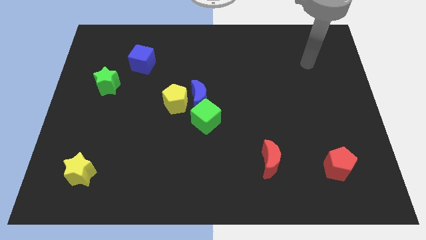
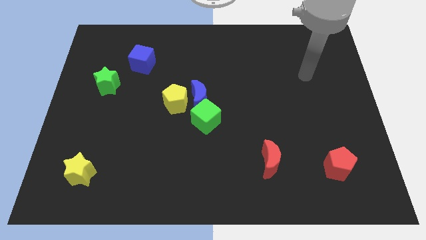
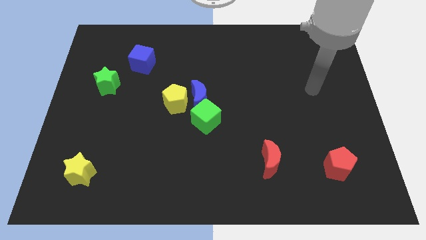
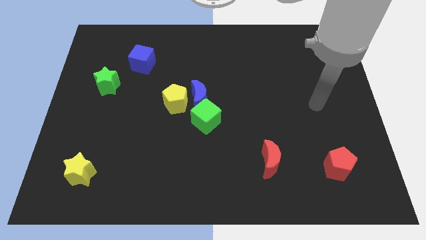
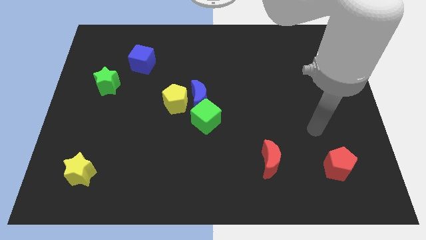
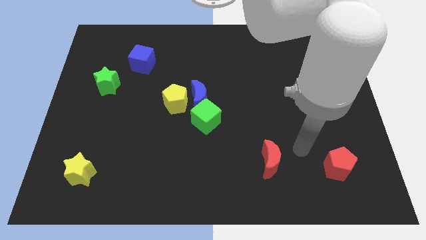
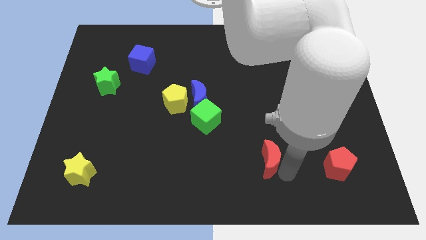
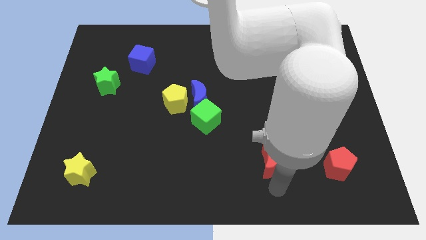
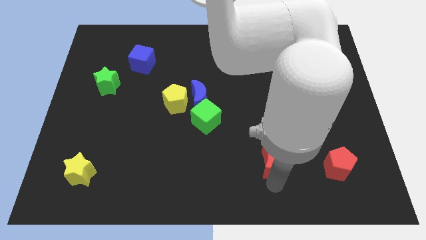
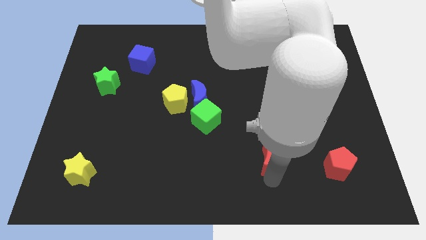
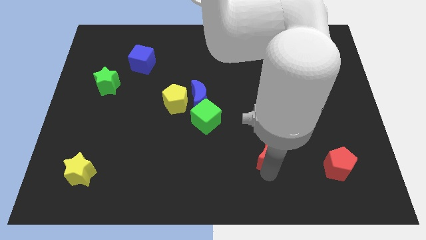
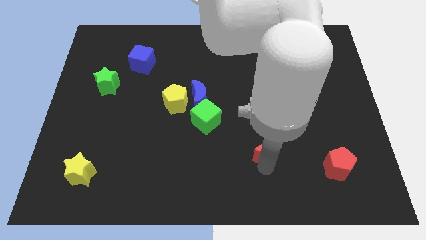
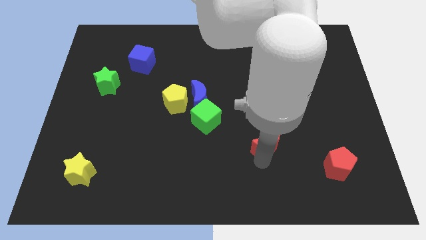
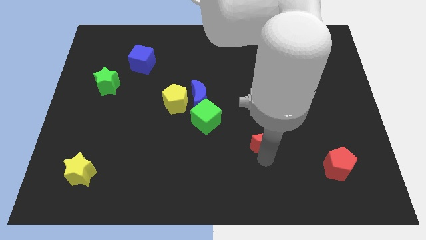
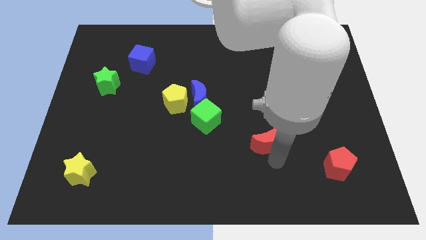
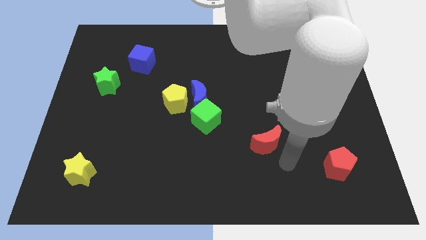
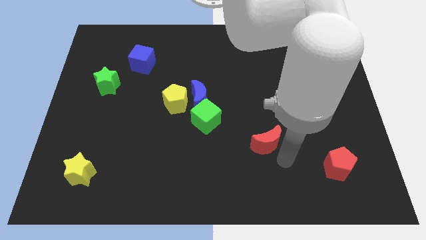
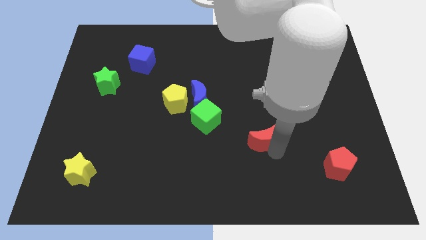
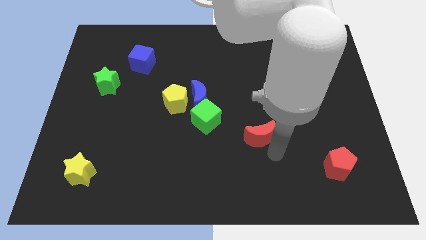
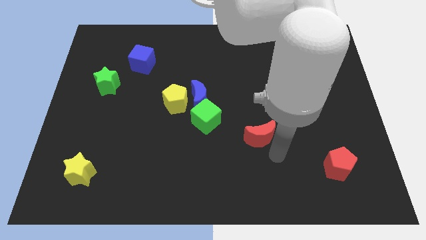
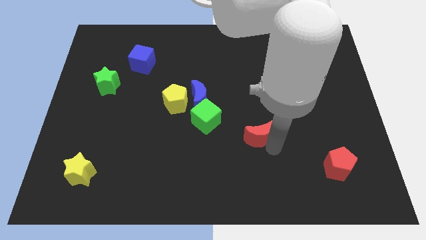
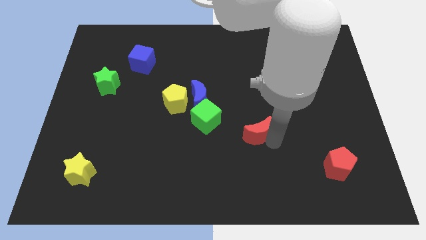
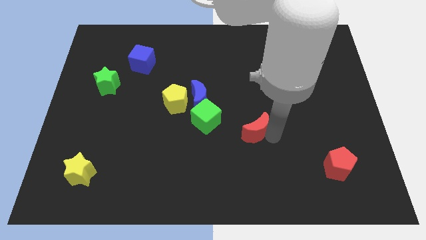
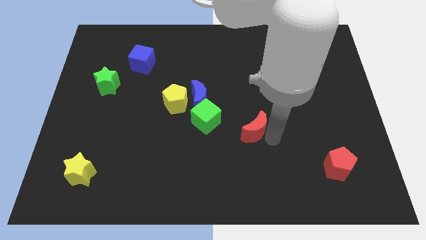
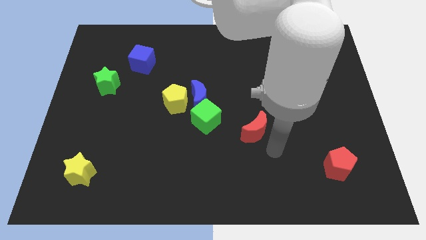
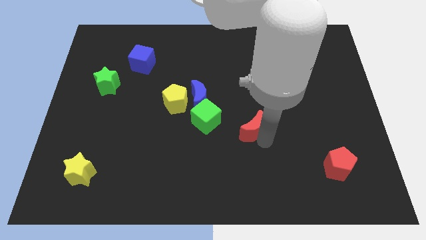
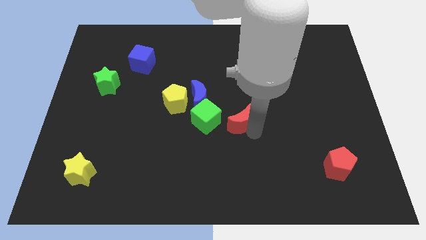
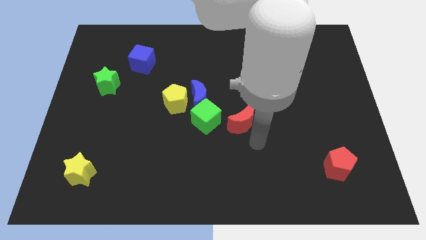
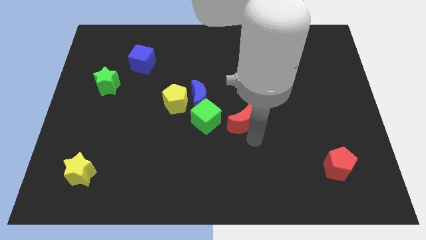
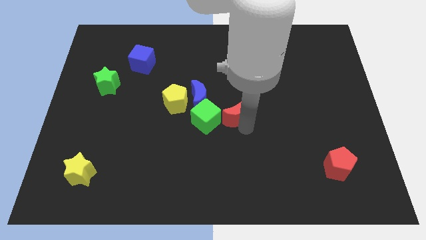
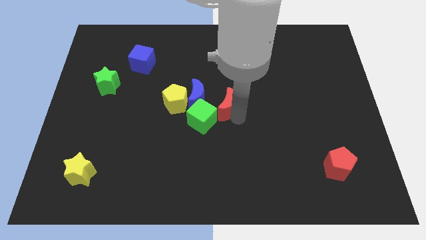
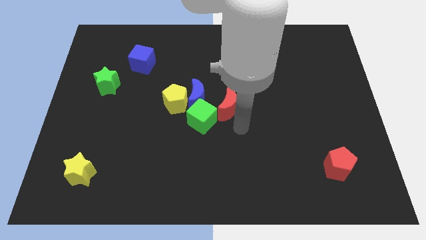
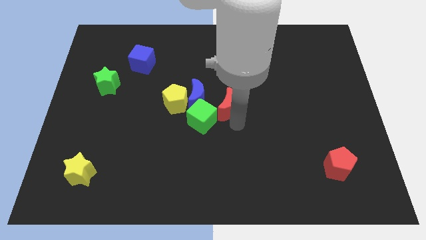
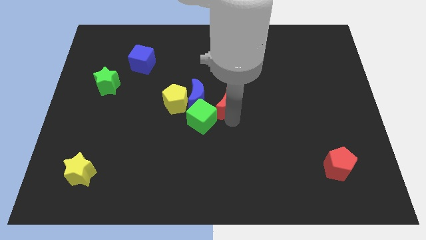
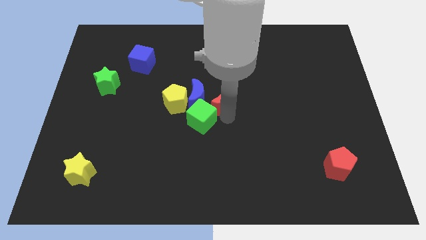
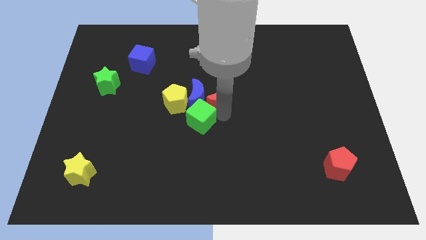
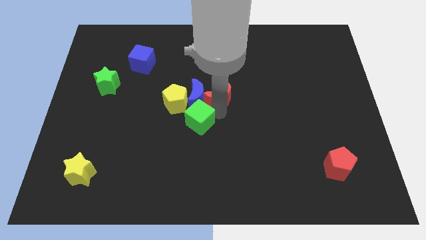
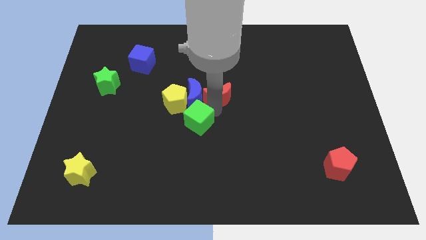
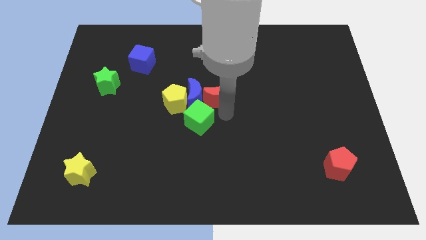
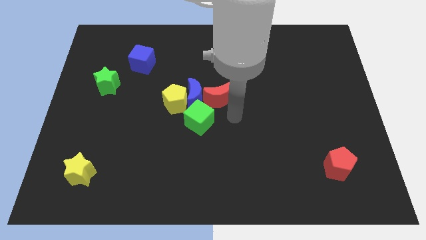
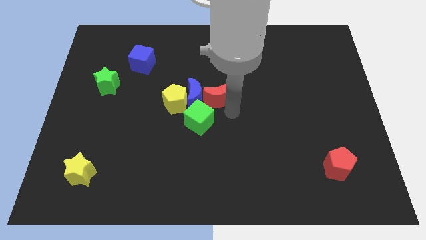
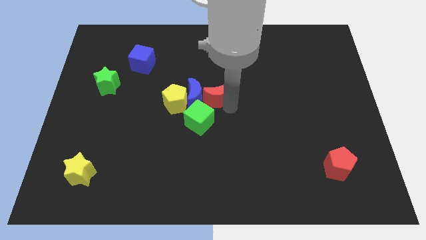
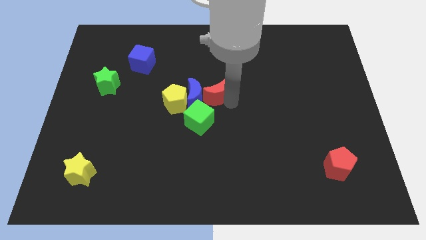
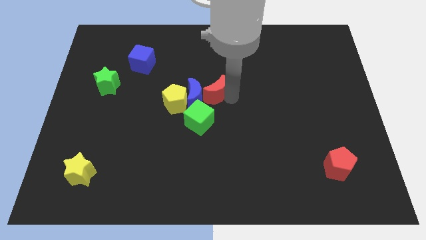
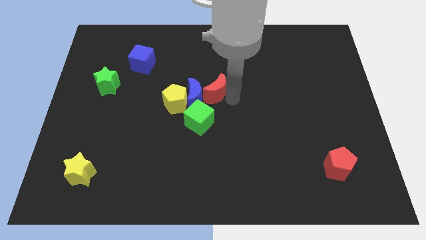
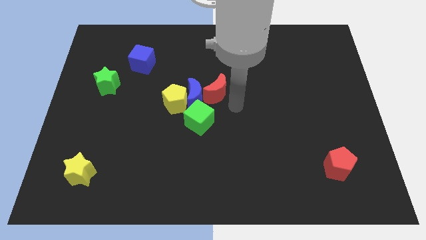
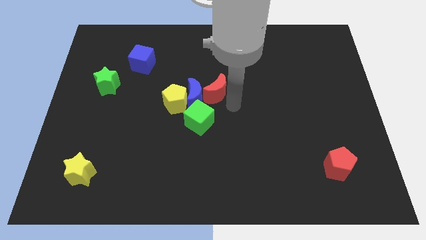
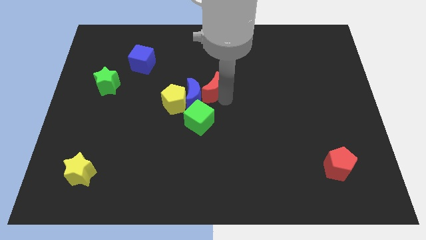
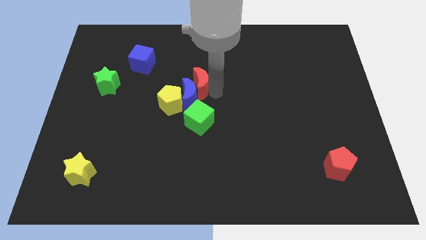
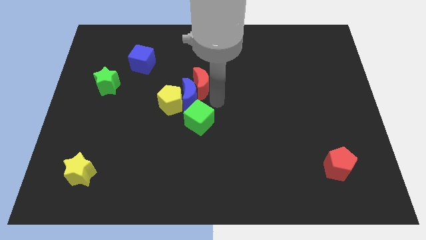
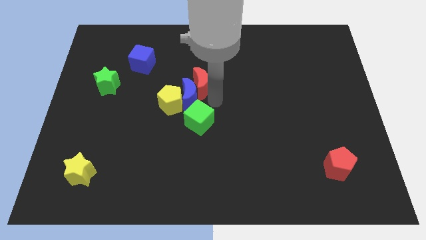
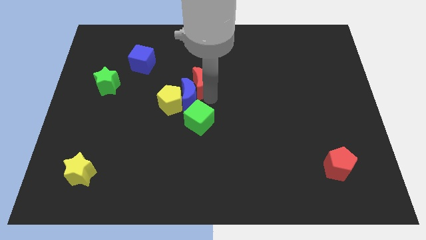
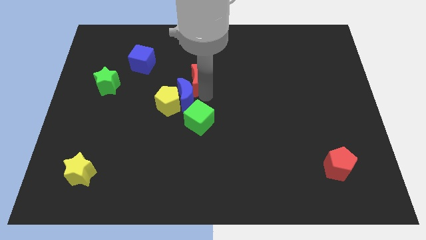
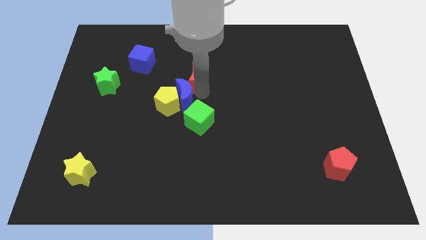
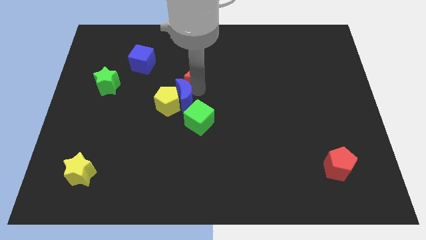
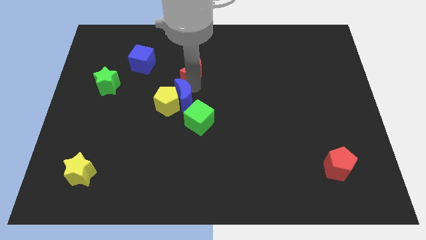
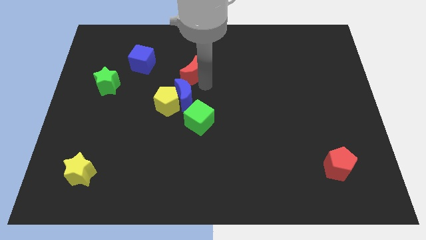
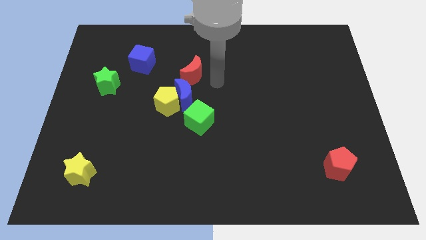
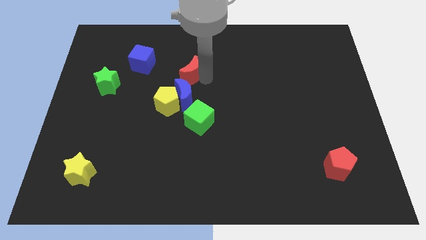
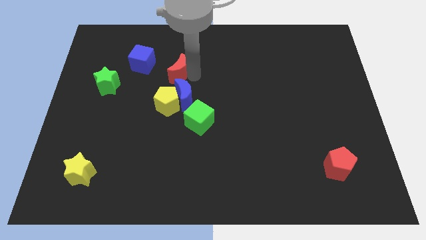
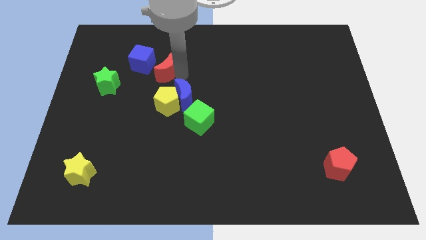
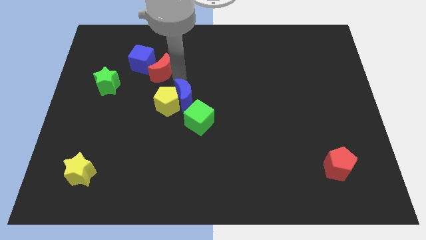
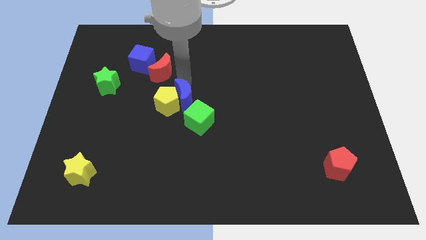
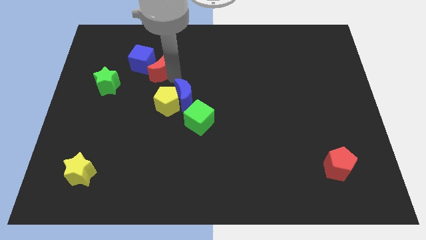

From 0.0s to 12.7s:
put the red moon next to the blue cube
